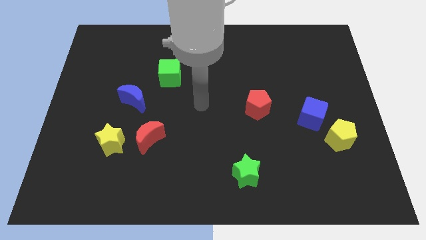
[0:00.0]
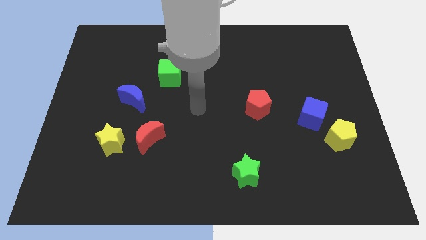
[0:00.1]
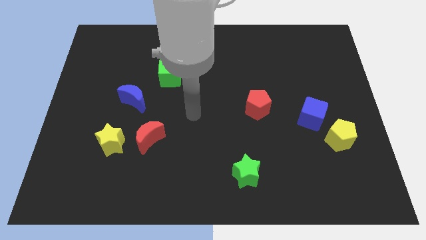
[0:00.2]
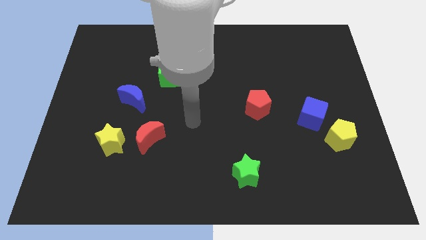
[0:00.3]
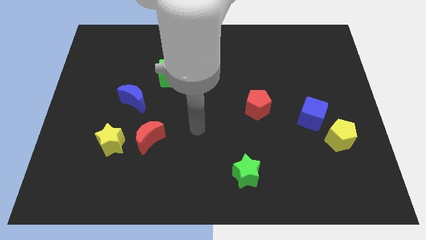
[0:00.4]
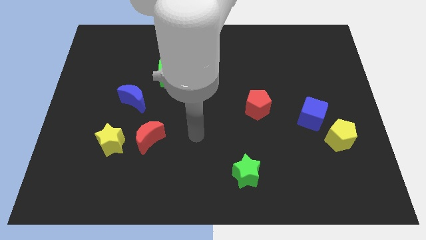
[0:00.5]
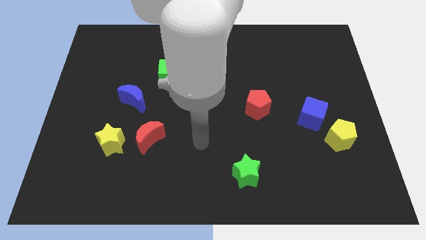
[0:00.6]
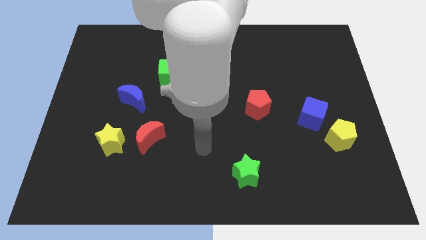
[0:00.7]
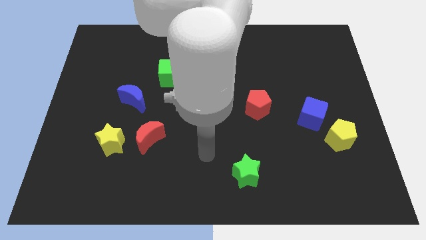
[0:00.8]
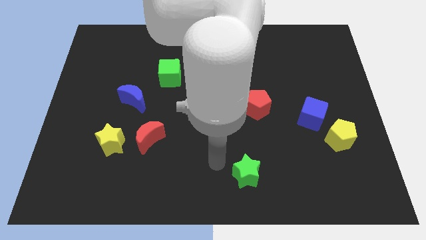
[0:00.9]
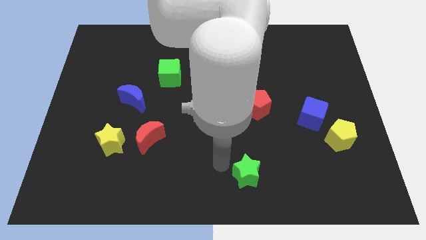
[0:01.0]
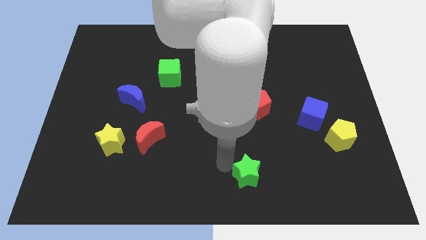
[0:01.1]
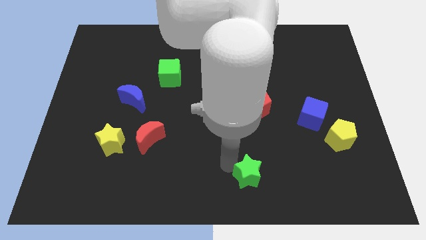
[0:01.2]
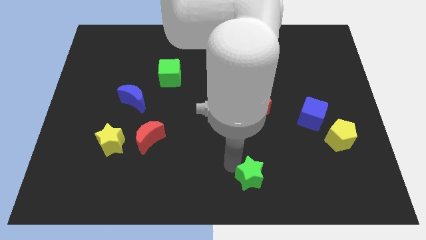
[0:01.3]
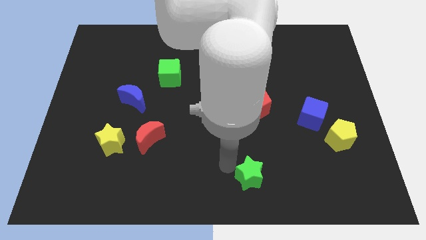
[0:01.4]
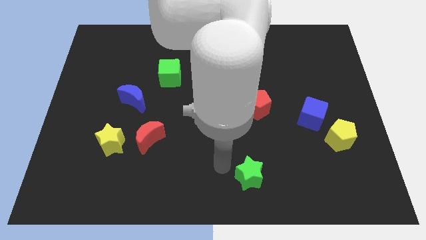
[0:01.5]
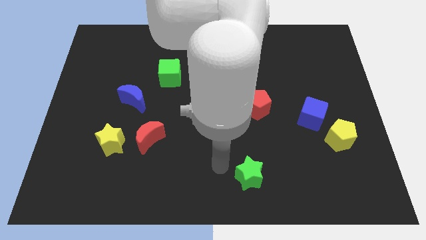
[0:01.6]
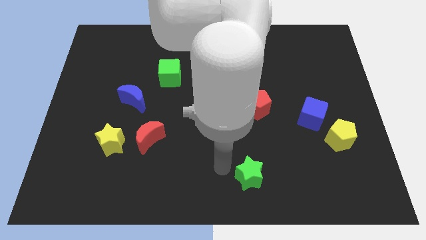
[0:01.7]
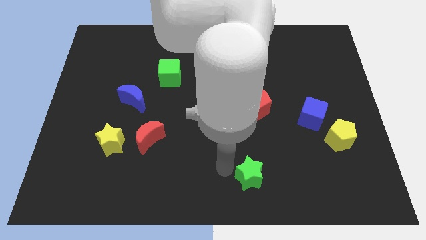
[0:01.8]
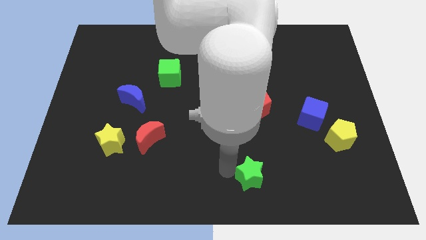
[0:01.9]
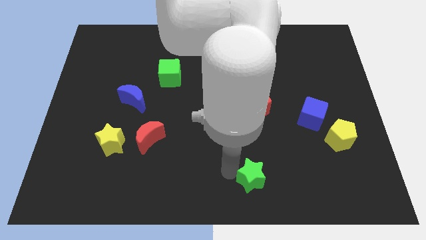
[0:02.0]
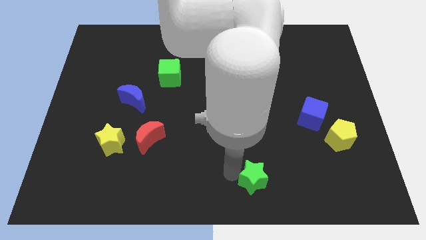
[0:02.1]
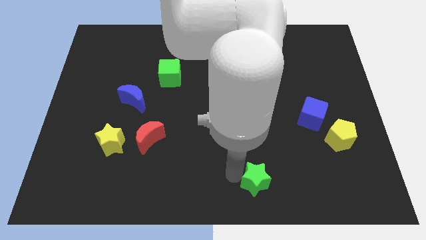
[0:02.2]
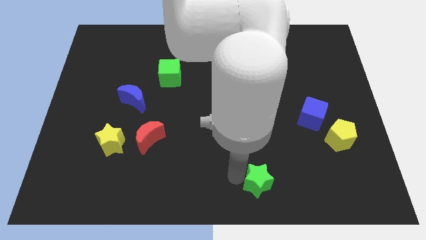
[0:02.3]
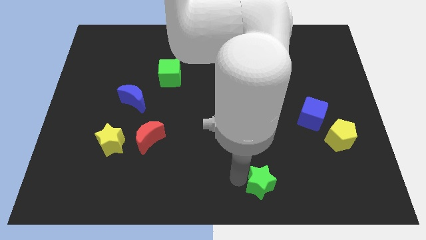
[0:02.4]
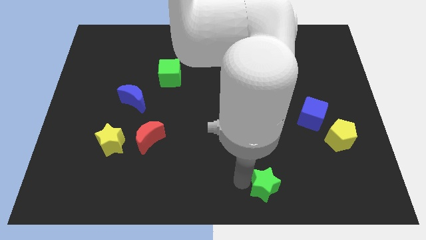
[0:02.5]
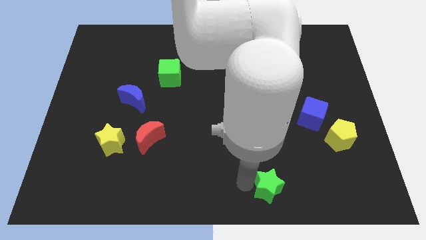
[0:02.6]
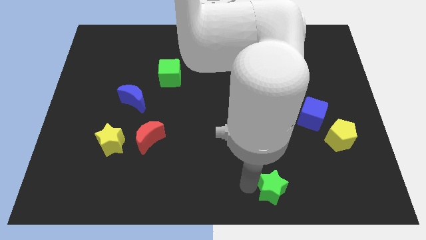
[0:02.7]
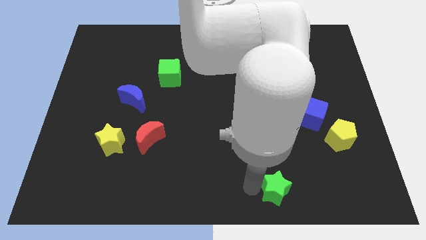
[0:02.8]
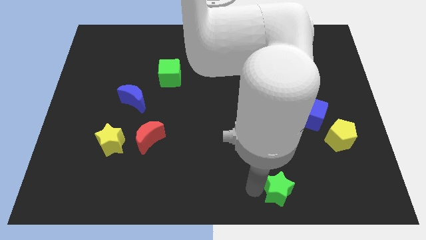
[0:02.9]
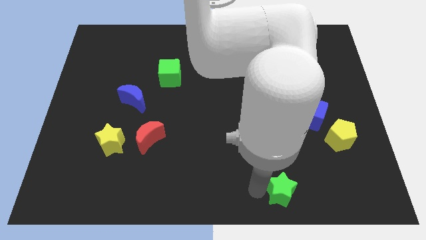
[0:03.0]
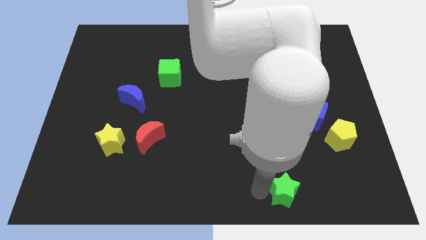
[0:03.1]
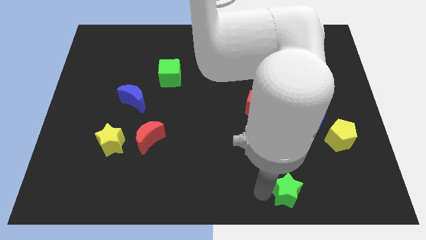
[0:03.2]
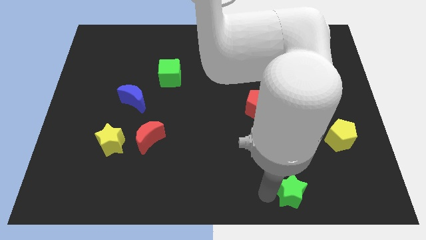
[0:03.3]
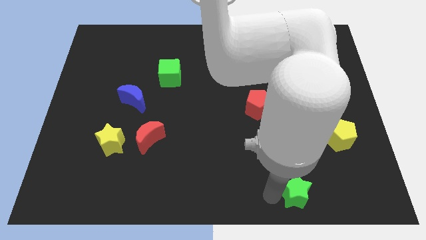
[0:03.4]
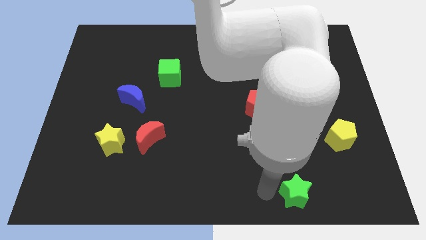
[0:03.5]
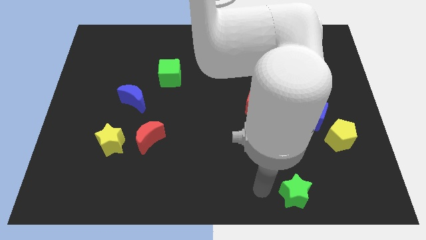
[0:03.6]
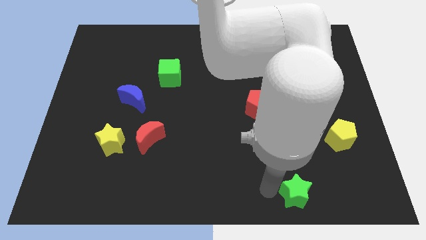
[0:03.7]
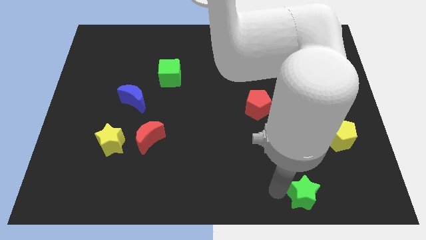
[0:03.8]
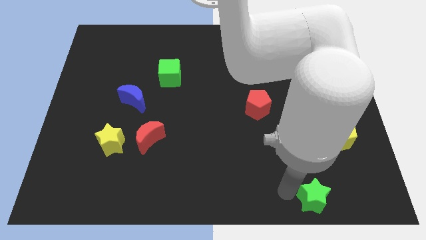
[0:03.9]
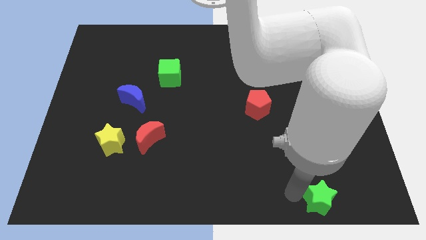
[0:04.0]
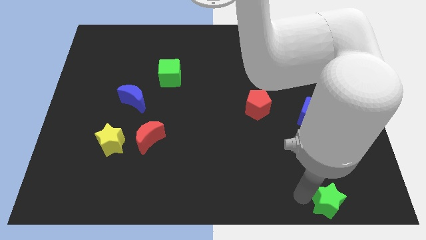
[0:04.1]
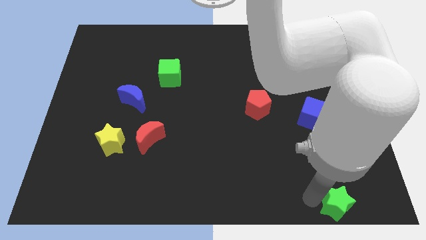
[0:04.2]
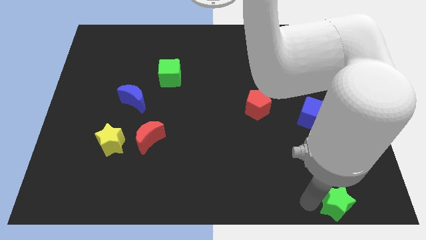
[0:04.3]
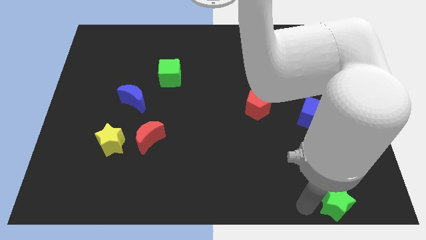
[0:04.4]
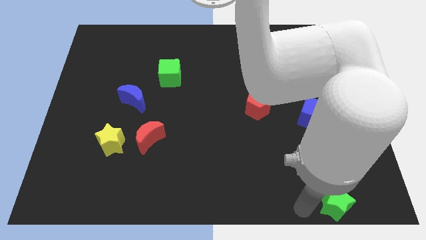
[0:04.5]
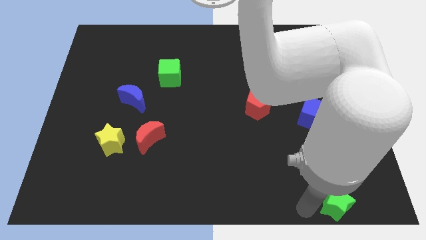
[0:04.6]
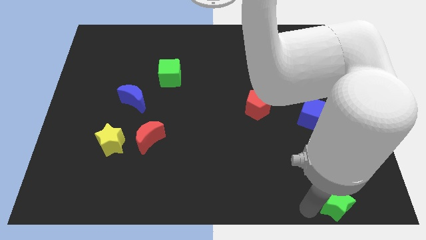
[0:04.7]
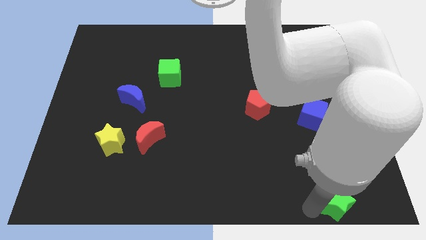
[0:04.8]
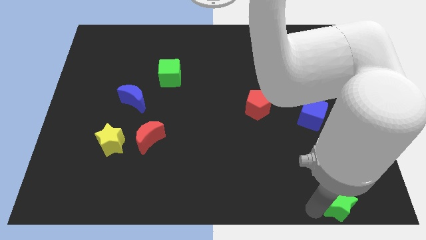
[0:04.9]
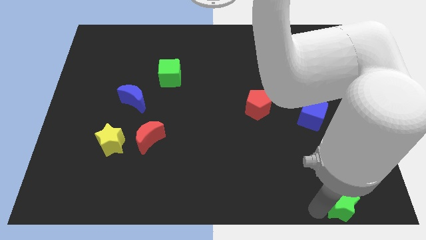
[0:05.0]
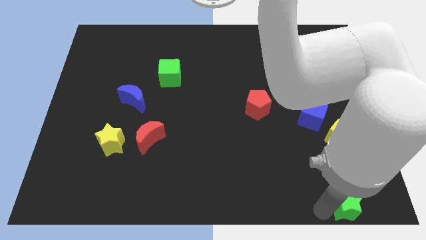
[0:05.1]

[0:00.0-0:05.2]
push the green star to the lower right corner

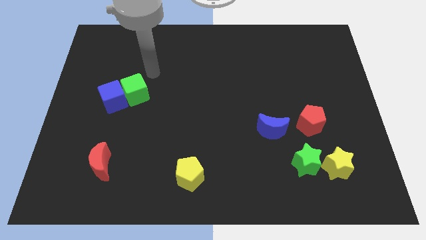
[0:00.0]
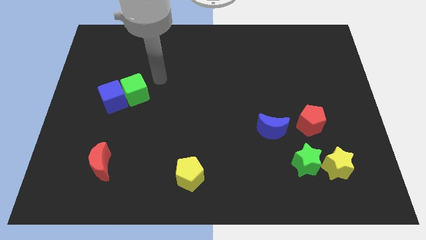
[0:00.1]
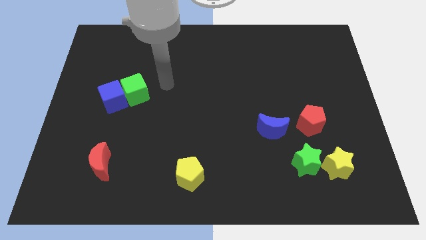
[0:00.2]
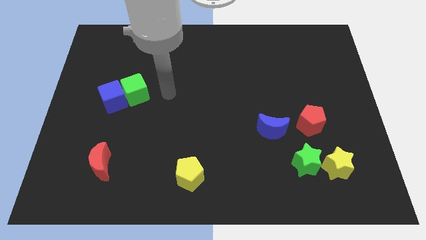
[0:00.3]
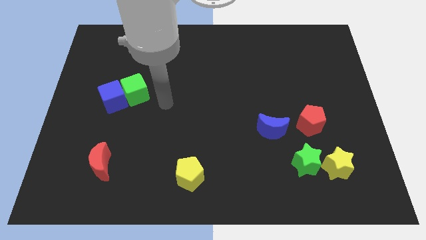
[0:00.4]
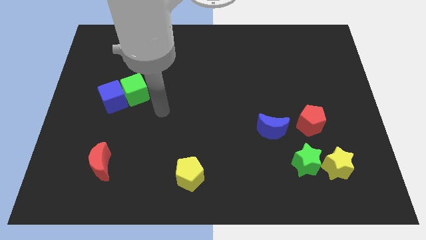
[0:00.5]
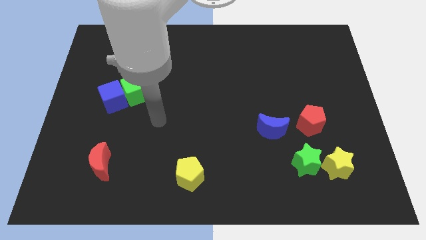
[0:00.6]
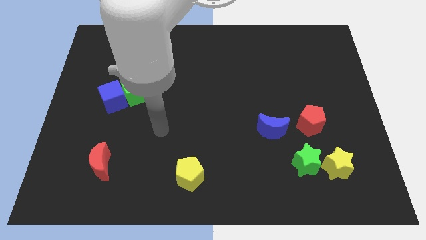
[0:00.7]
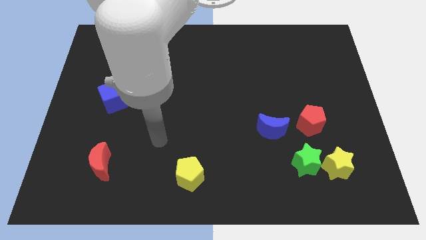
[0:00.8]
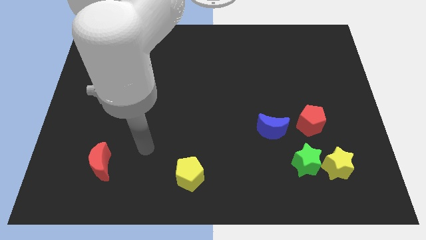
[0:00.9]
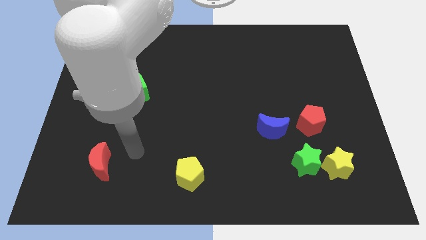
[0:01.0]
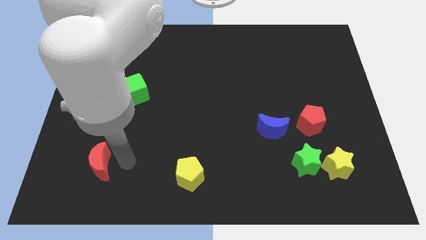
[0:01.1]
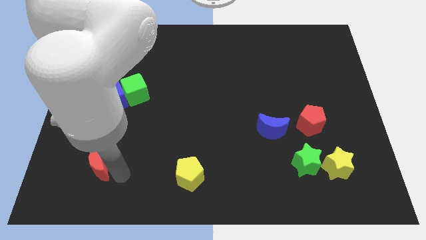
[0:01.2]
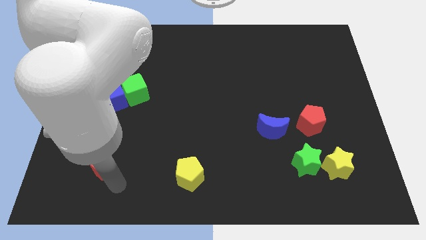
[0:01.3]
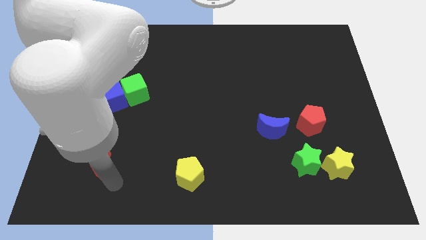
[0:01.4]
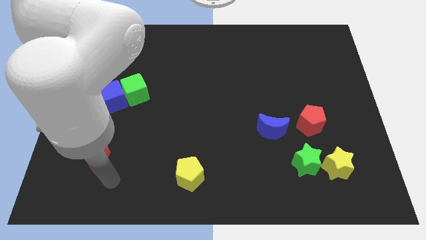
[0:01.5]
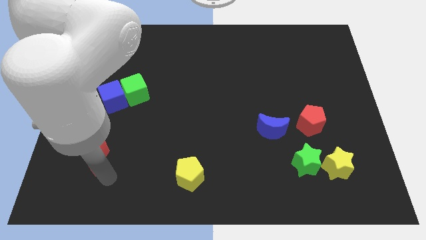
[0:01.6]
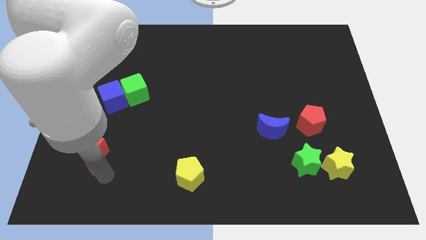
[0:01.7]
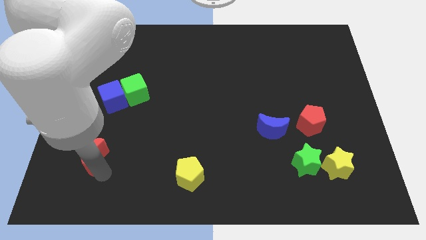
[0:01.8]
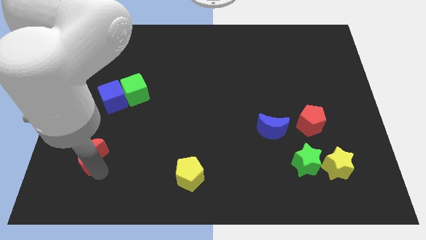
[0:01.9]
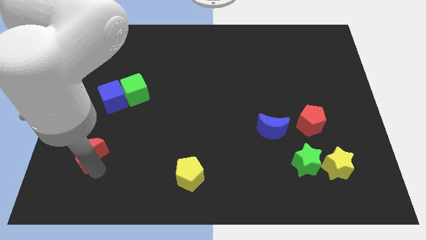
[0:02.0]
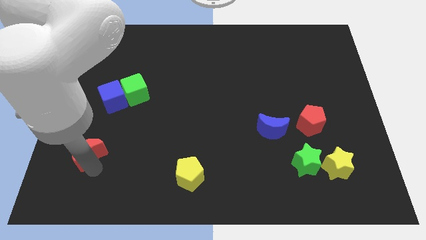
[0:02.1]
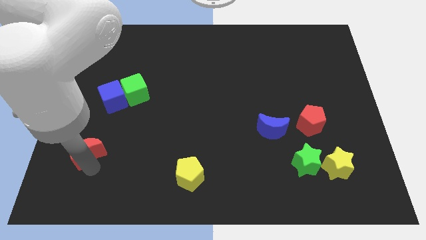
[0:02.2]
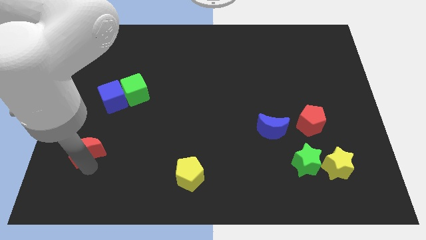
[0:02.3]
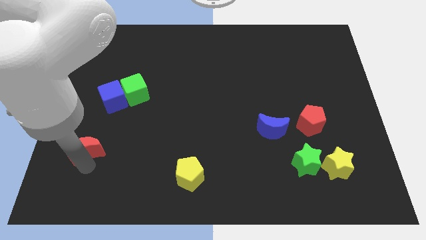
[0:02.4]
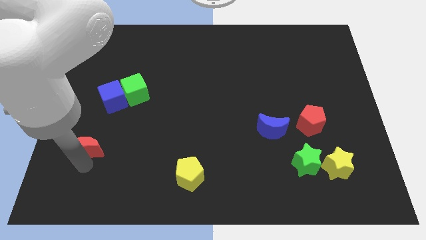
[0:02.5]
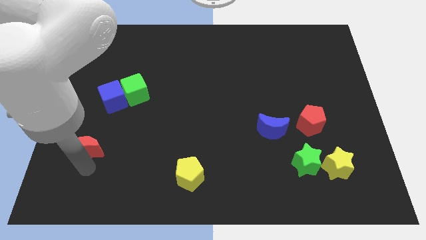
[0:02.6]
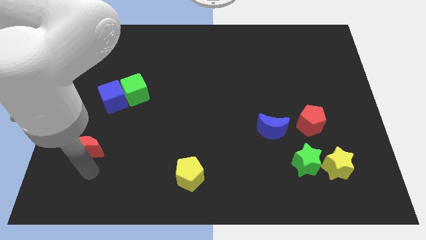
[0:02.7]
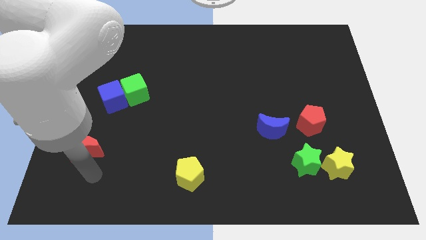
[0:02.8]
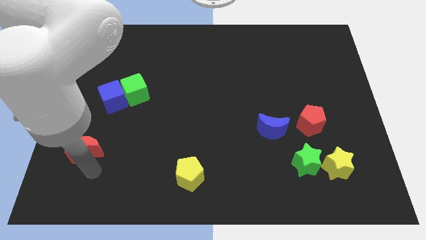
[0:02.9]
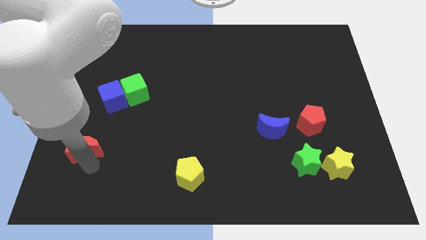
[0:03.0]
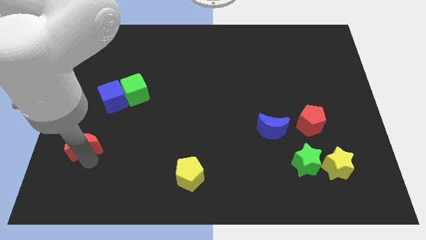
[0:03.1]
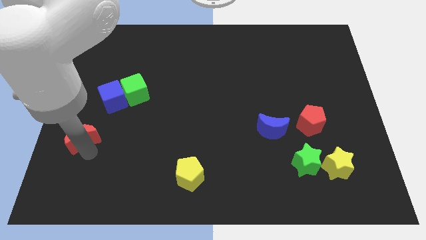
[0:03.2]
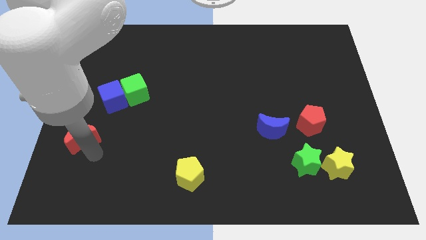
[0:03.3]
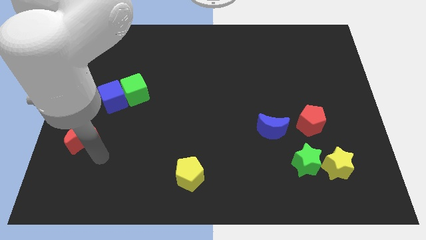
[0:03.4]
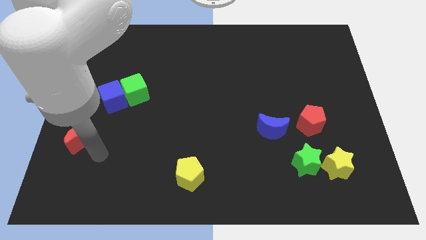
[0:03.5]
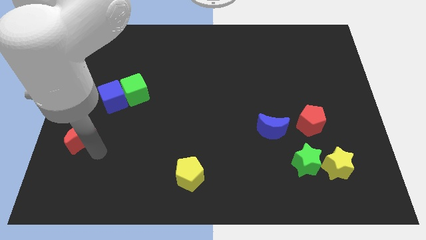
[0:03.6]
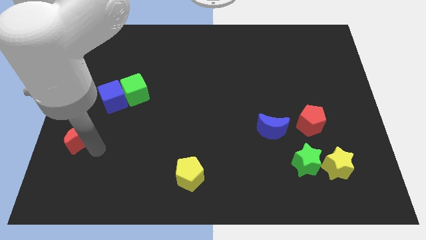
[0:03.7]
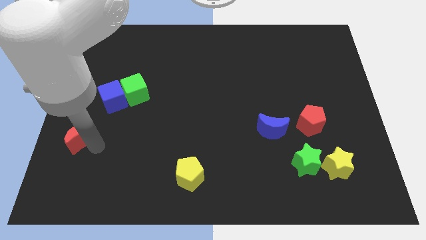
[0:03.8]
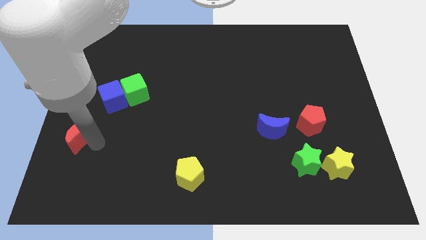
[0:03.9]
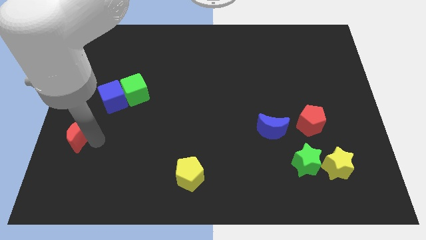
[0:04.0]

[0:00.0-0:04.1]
move the red moon to the center left
